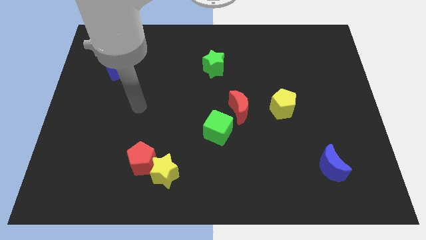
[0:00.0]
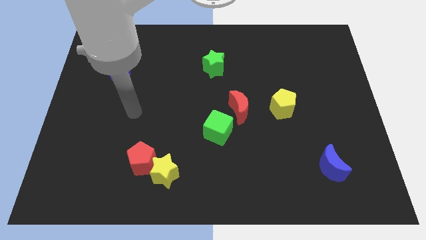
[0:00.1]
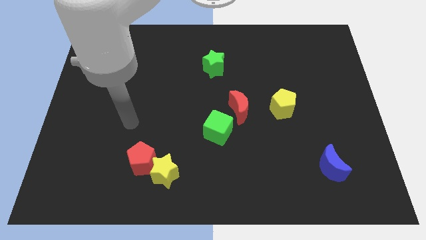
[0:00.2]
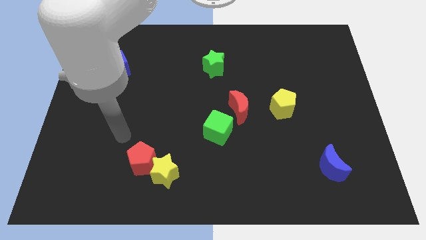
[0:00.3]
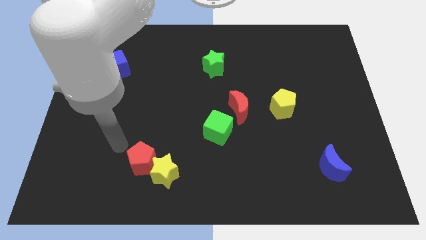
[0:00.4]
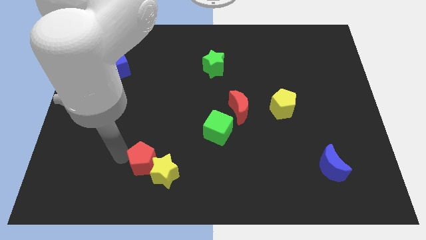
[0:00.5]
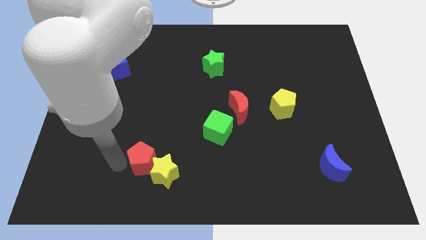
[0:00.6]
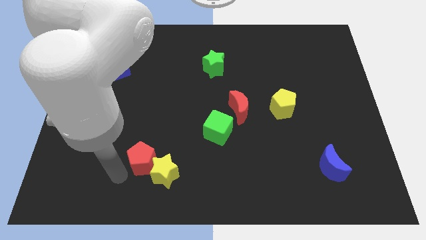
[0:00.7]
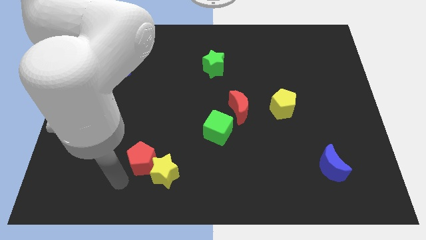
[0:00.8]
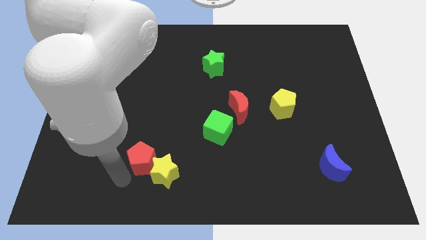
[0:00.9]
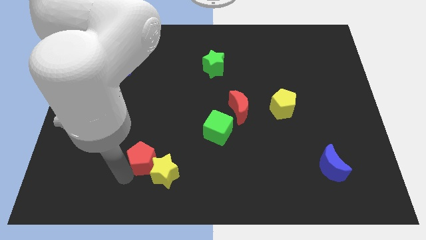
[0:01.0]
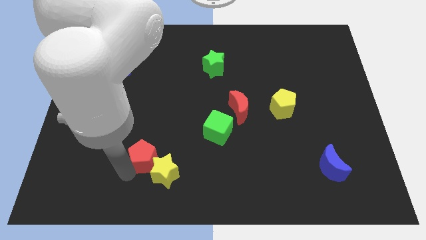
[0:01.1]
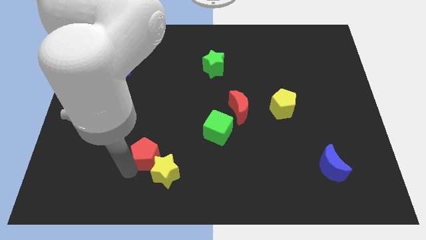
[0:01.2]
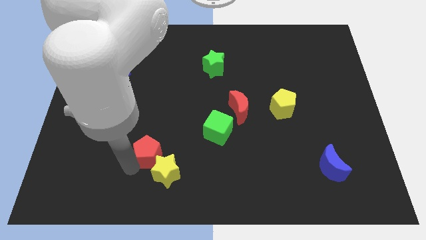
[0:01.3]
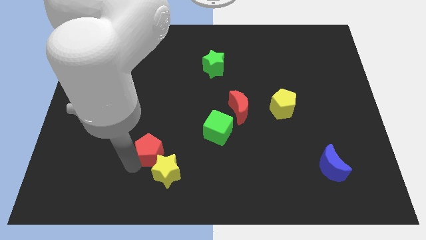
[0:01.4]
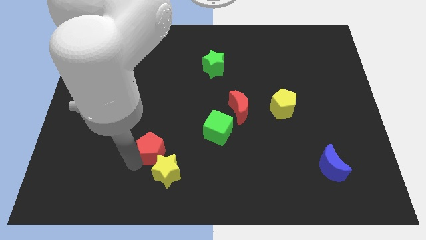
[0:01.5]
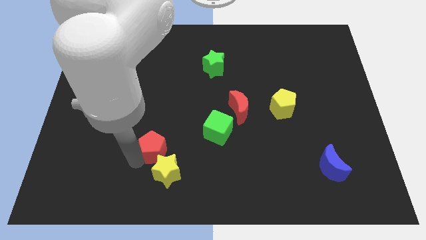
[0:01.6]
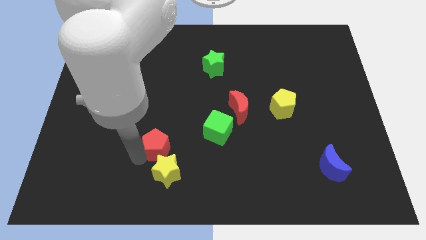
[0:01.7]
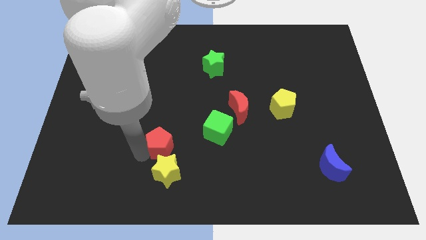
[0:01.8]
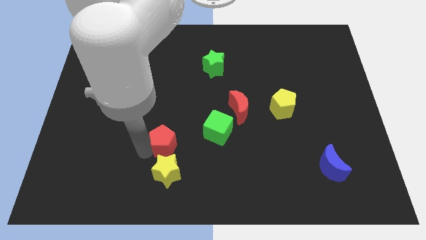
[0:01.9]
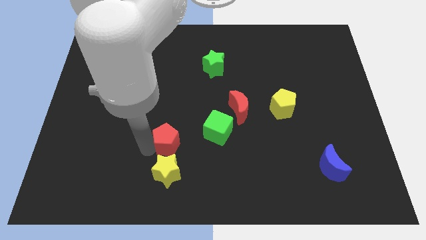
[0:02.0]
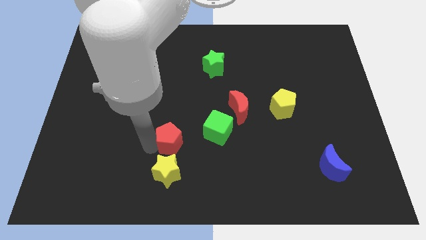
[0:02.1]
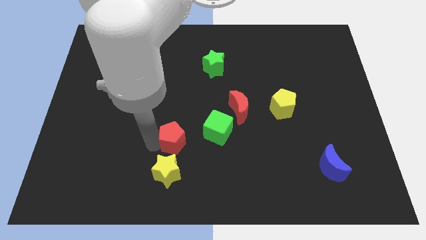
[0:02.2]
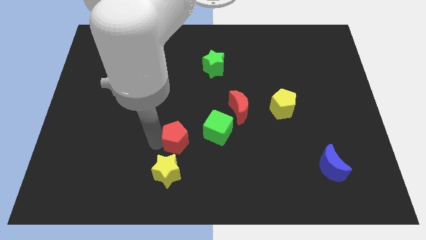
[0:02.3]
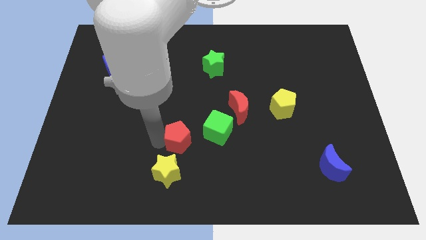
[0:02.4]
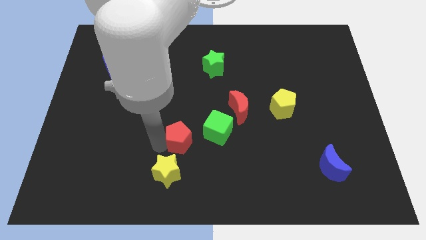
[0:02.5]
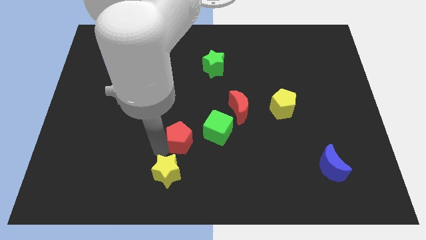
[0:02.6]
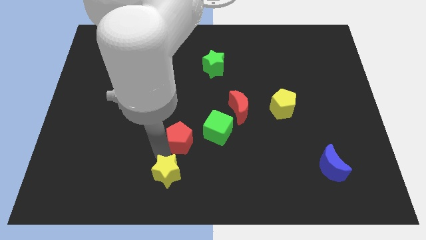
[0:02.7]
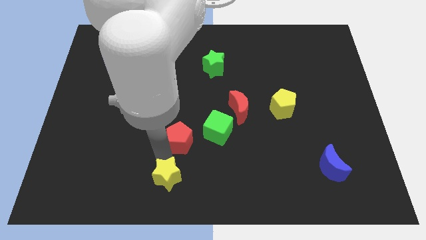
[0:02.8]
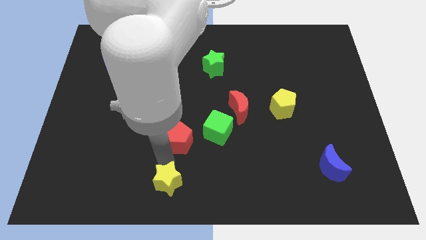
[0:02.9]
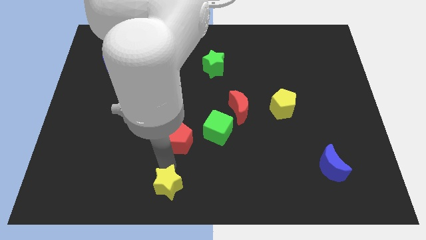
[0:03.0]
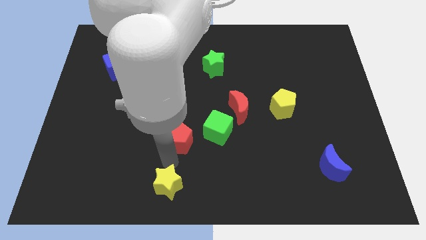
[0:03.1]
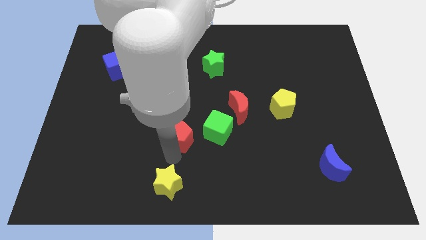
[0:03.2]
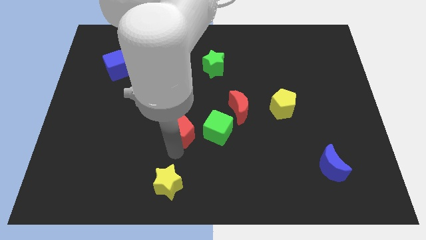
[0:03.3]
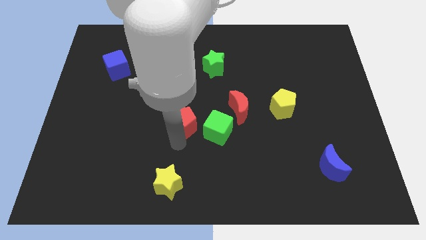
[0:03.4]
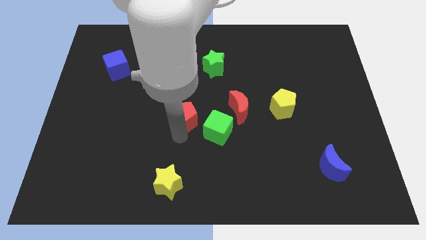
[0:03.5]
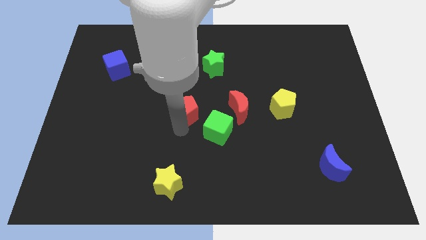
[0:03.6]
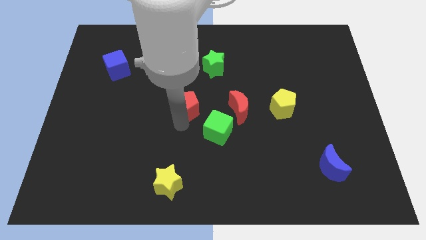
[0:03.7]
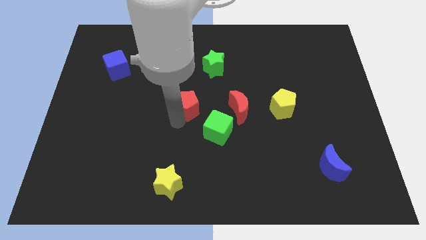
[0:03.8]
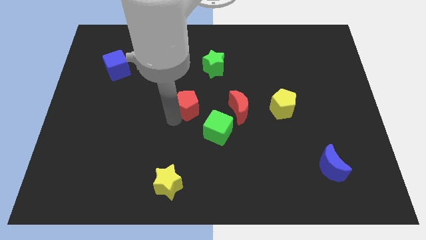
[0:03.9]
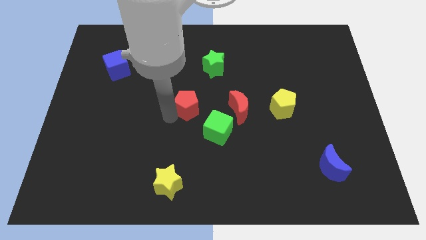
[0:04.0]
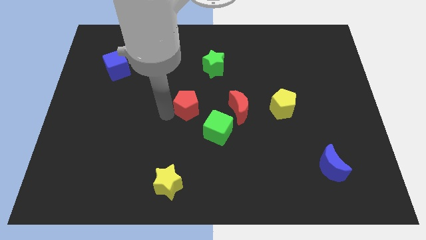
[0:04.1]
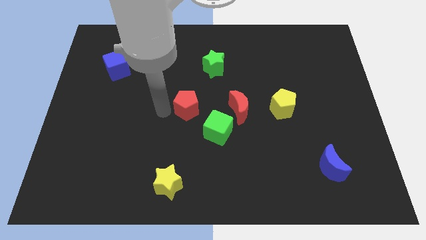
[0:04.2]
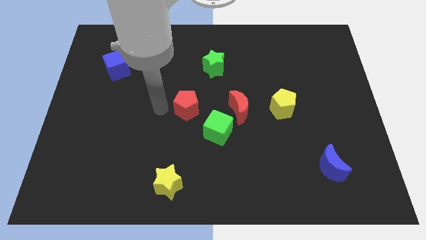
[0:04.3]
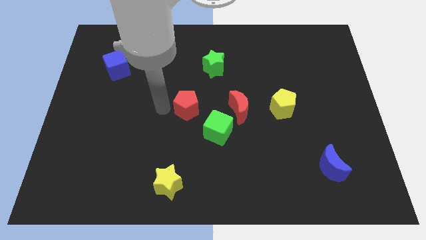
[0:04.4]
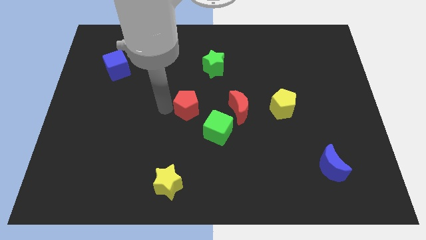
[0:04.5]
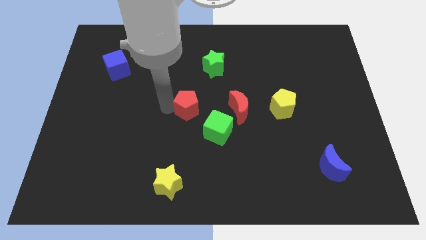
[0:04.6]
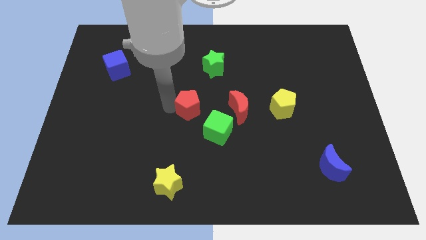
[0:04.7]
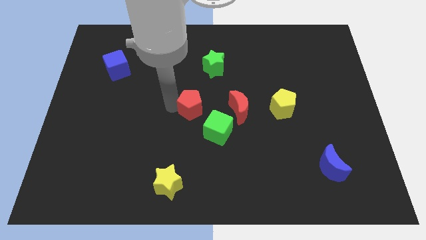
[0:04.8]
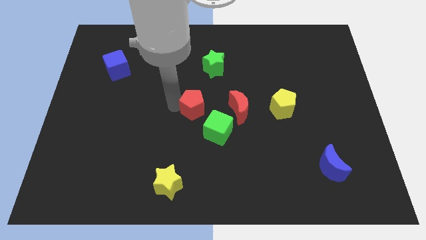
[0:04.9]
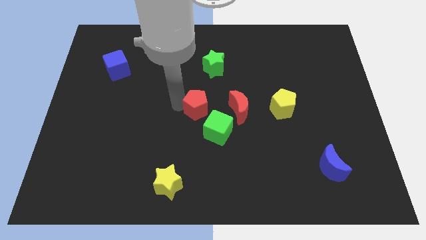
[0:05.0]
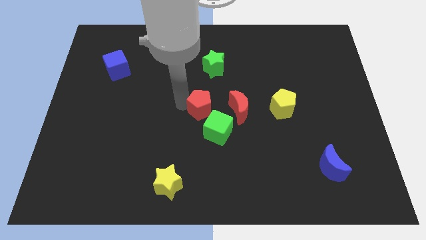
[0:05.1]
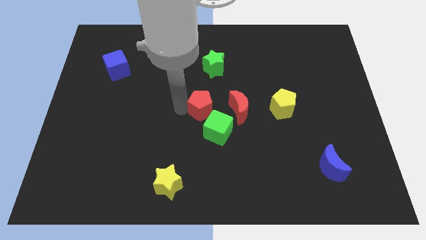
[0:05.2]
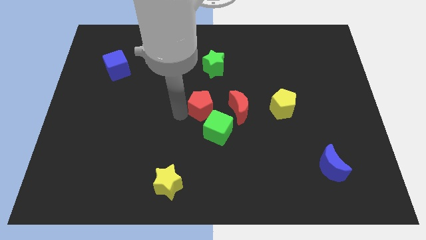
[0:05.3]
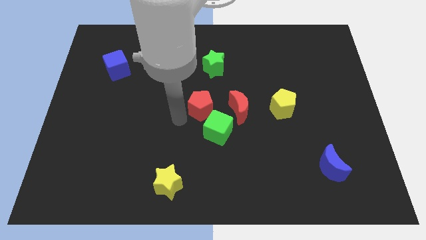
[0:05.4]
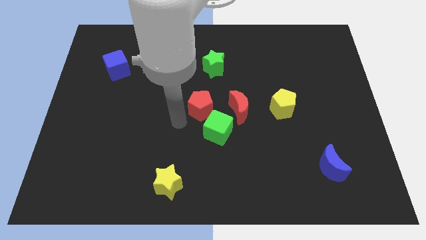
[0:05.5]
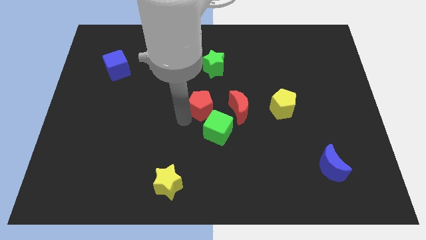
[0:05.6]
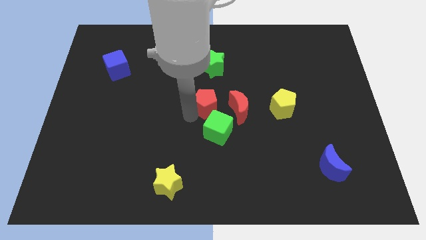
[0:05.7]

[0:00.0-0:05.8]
slide the red pentagon up and right

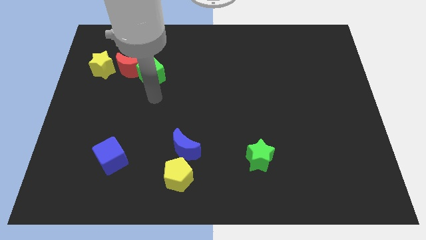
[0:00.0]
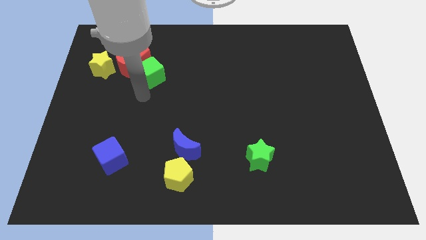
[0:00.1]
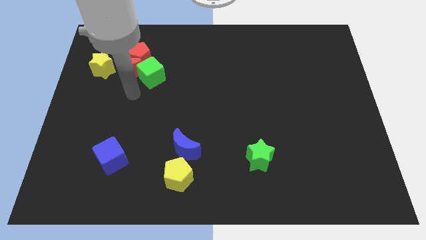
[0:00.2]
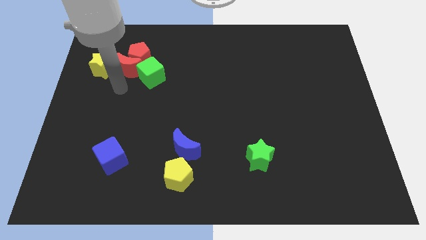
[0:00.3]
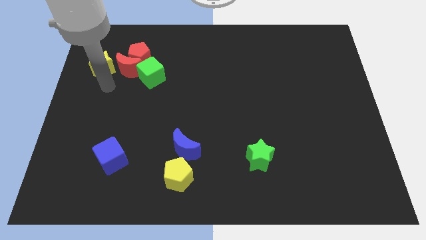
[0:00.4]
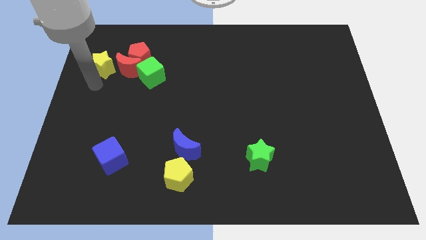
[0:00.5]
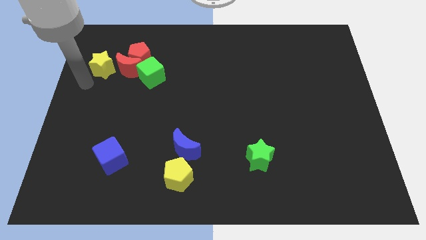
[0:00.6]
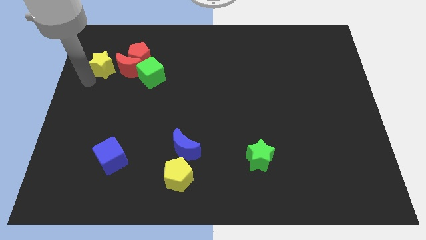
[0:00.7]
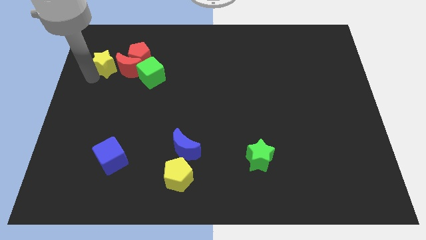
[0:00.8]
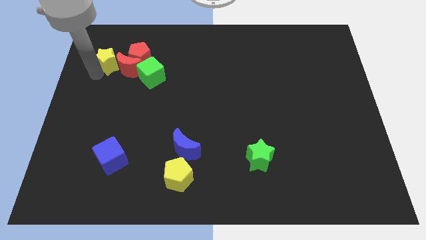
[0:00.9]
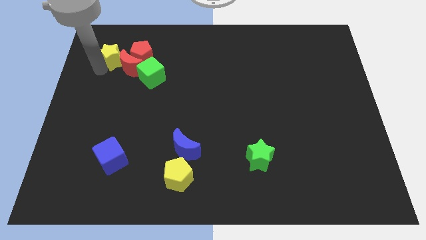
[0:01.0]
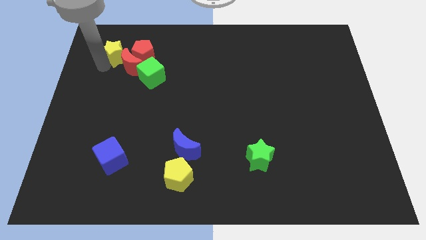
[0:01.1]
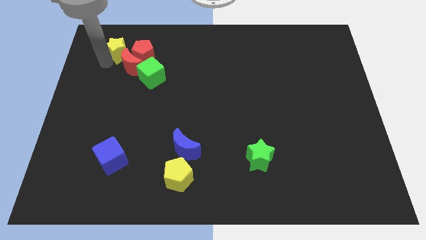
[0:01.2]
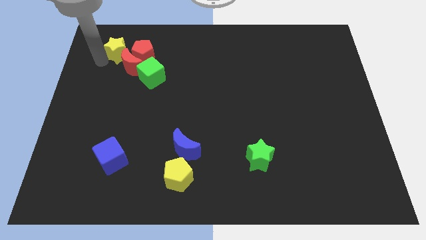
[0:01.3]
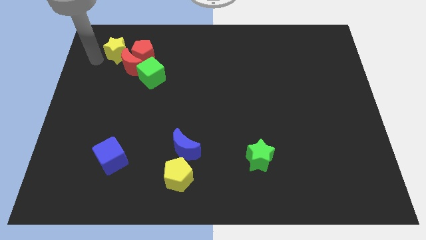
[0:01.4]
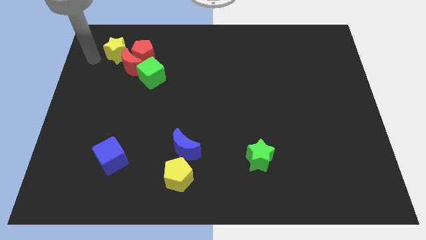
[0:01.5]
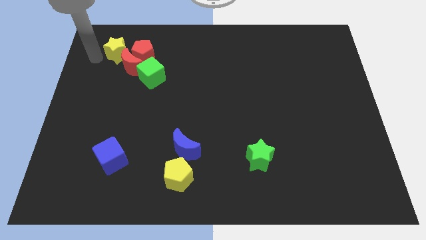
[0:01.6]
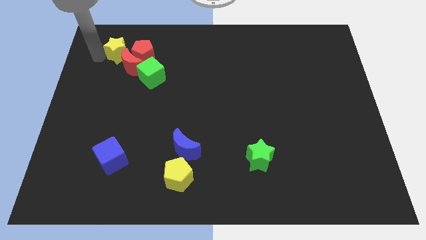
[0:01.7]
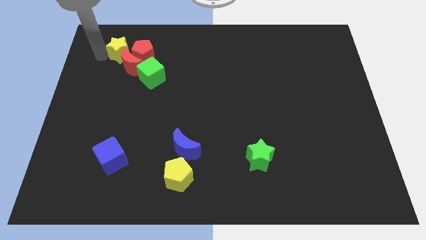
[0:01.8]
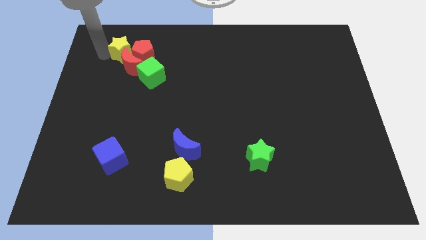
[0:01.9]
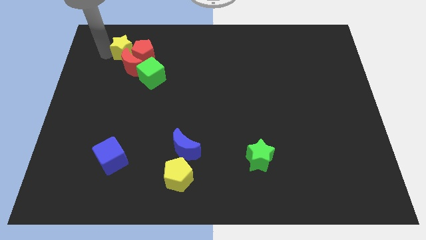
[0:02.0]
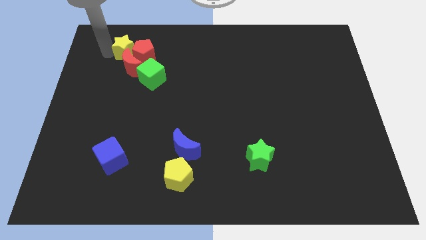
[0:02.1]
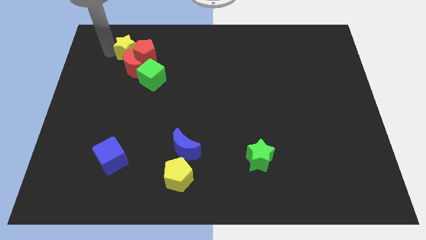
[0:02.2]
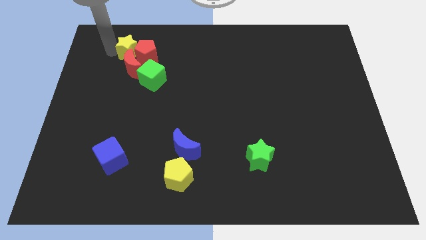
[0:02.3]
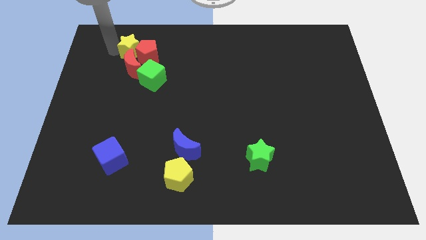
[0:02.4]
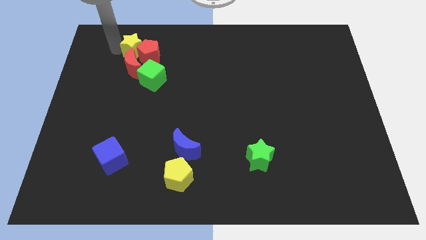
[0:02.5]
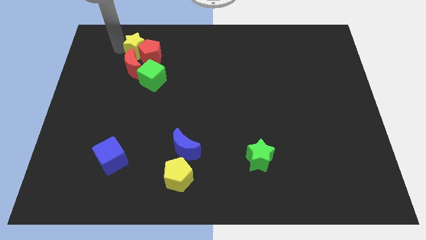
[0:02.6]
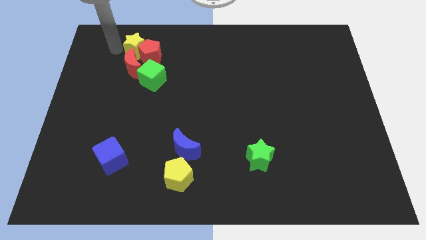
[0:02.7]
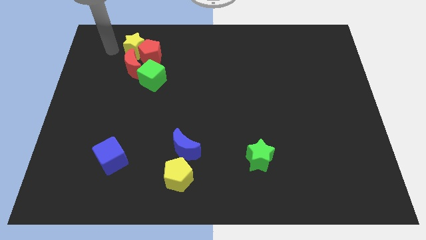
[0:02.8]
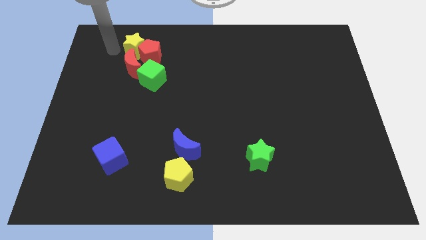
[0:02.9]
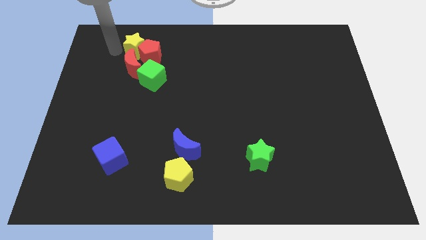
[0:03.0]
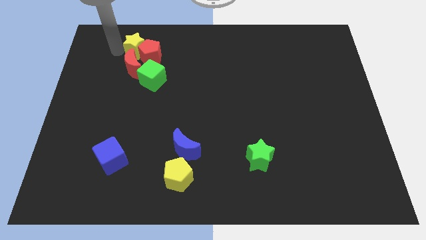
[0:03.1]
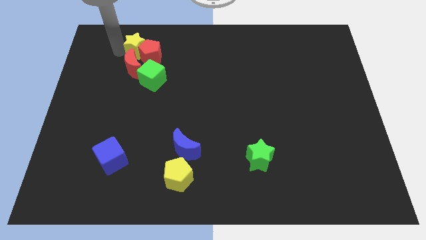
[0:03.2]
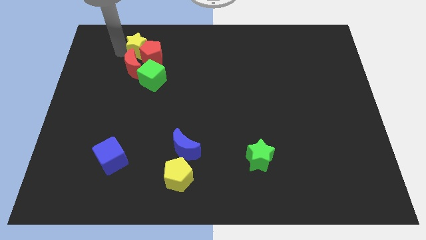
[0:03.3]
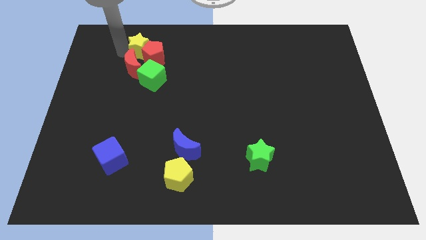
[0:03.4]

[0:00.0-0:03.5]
slide the yellow star right somewhat
